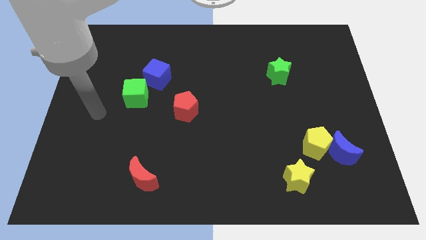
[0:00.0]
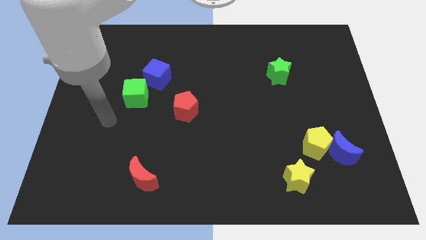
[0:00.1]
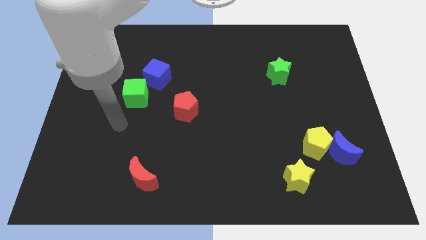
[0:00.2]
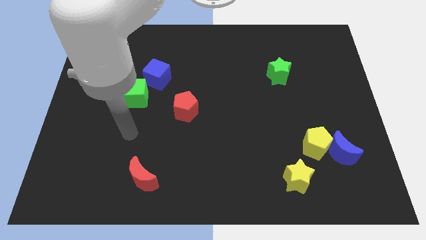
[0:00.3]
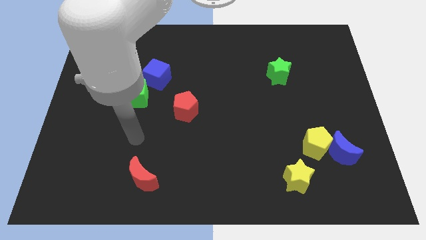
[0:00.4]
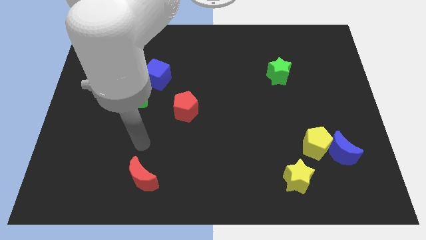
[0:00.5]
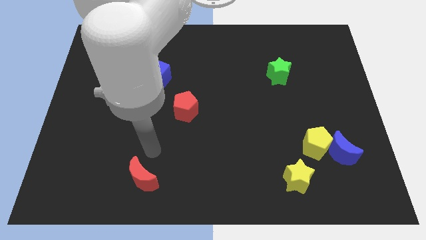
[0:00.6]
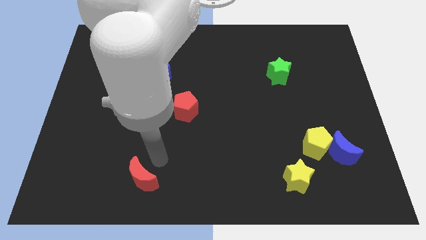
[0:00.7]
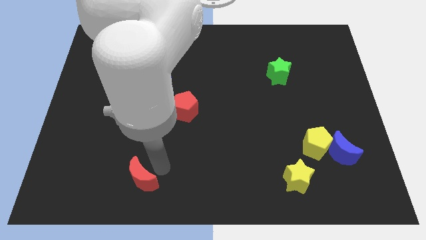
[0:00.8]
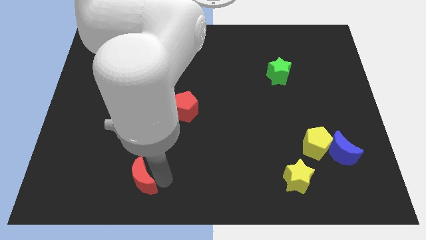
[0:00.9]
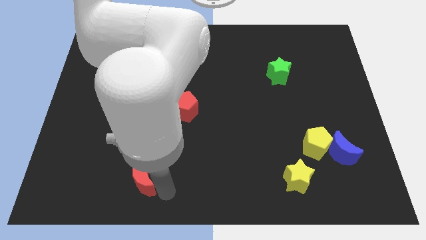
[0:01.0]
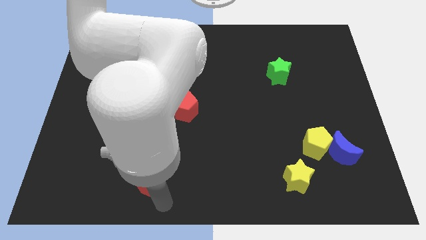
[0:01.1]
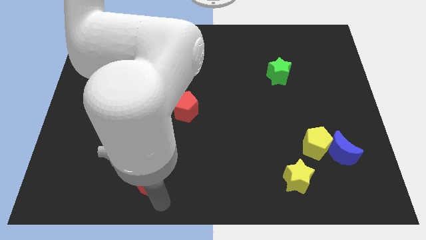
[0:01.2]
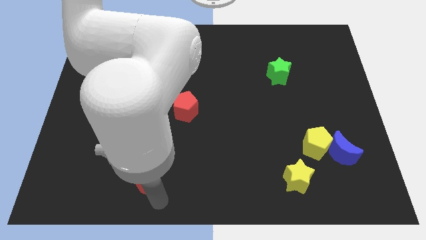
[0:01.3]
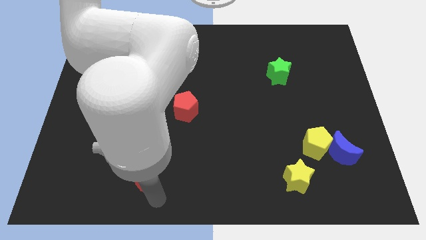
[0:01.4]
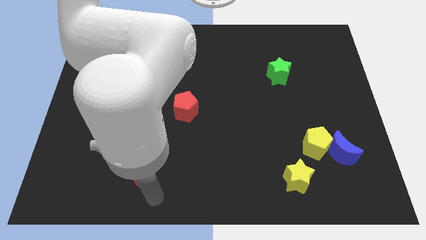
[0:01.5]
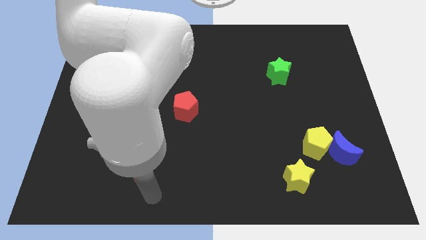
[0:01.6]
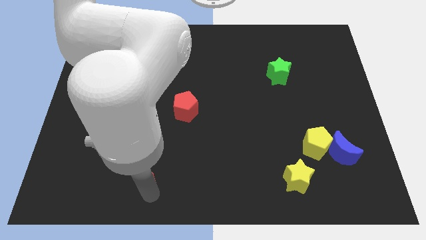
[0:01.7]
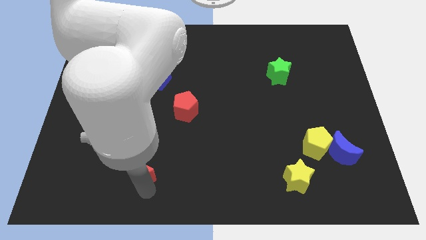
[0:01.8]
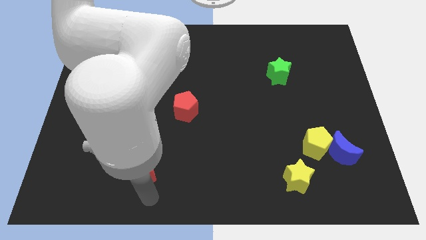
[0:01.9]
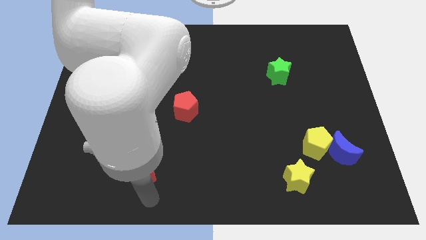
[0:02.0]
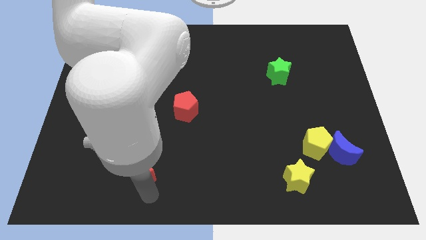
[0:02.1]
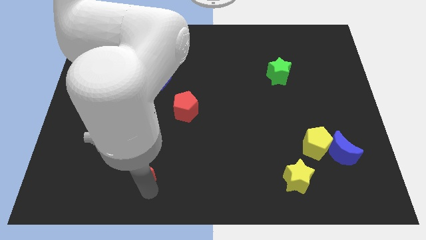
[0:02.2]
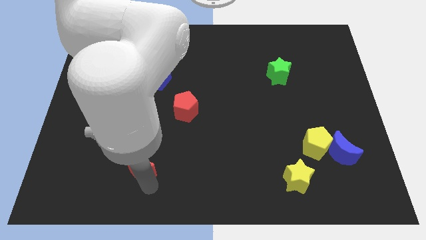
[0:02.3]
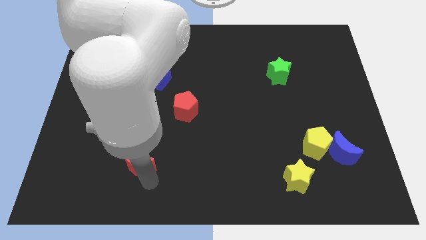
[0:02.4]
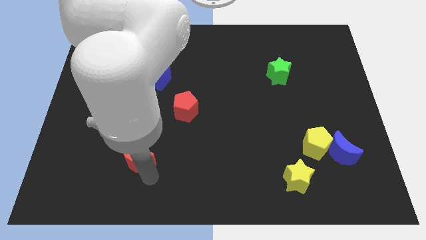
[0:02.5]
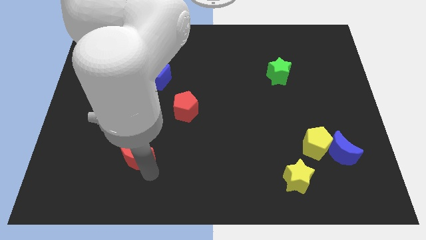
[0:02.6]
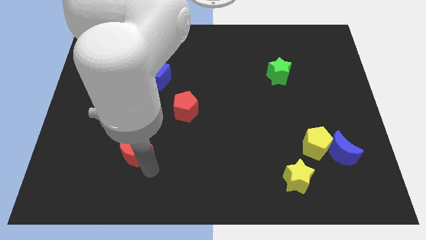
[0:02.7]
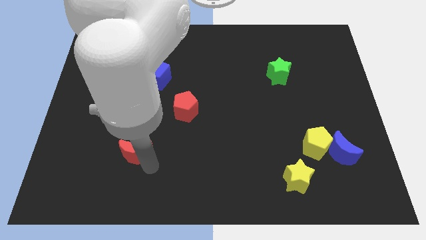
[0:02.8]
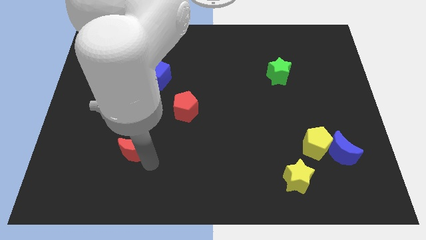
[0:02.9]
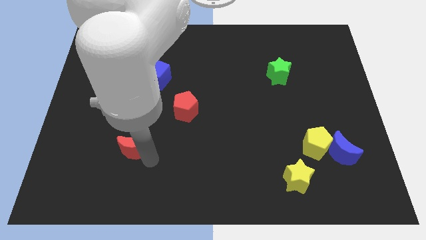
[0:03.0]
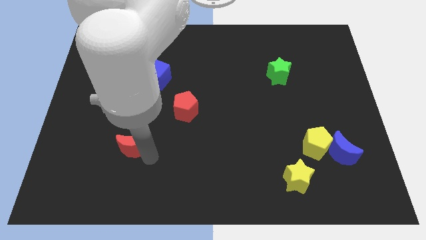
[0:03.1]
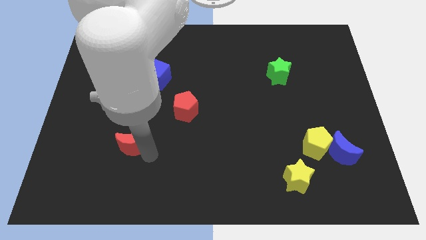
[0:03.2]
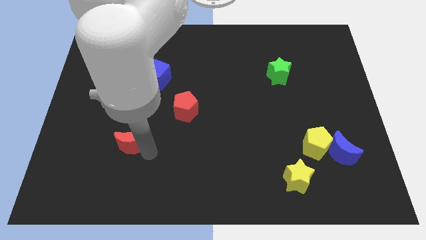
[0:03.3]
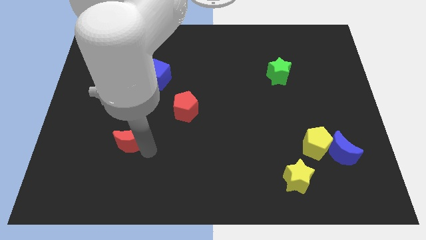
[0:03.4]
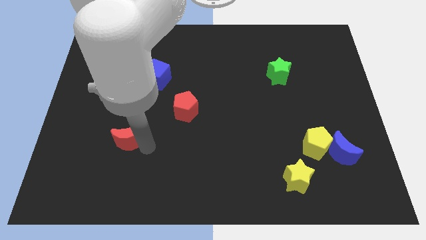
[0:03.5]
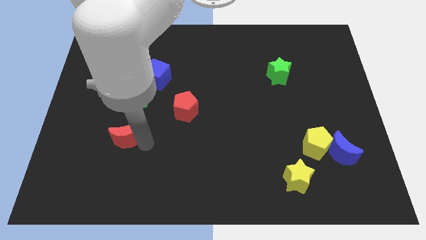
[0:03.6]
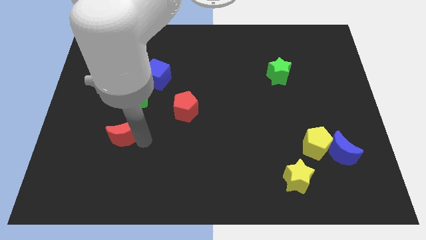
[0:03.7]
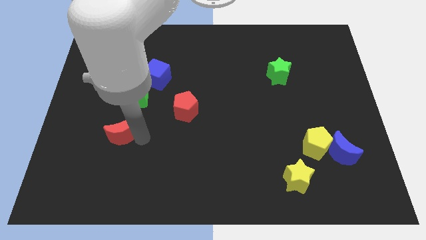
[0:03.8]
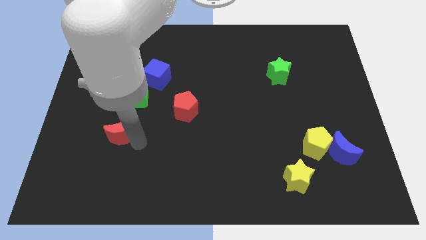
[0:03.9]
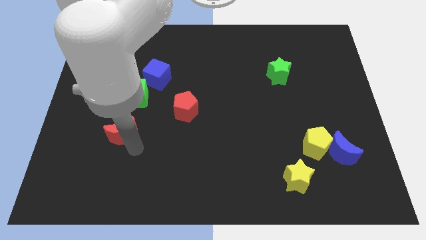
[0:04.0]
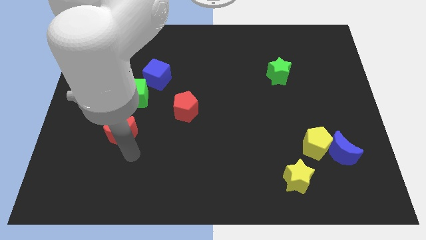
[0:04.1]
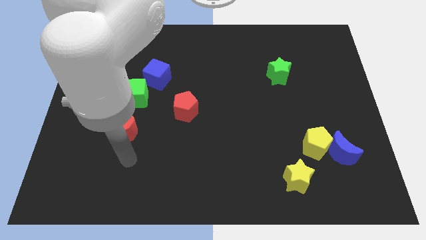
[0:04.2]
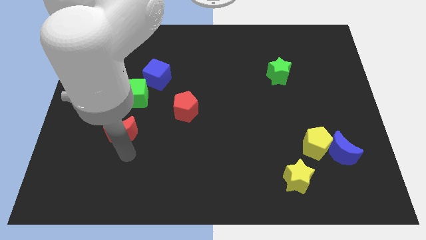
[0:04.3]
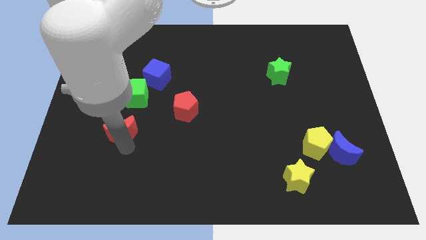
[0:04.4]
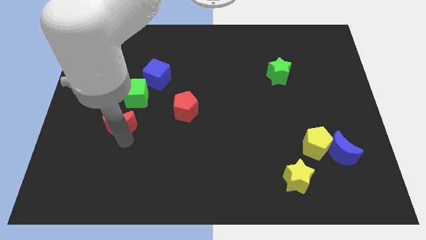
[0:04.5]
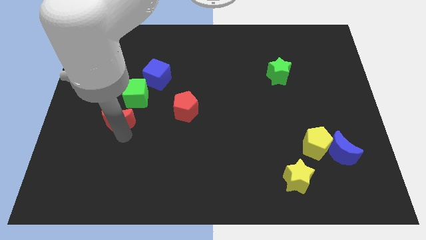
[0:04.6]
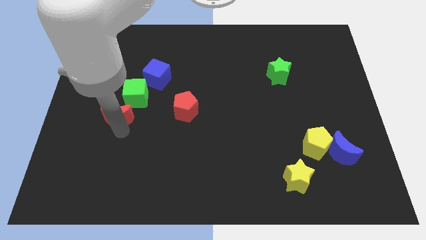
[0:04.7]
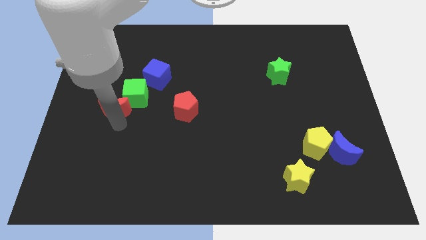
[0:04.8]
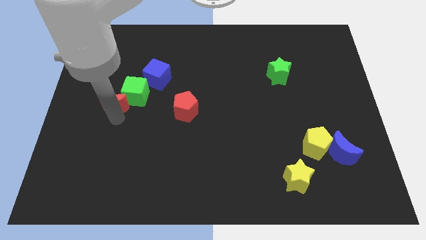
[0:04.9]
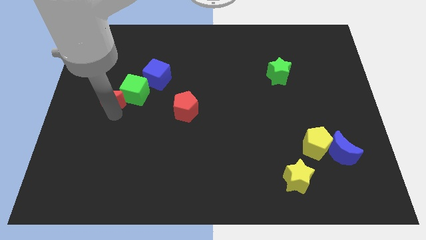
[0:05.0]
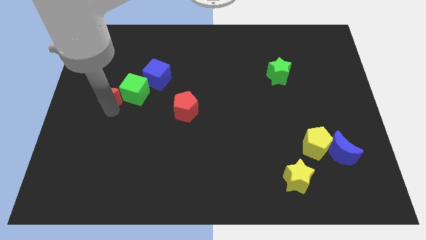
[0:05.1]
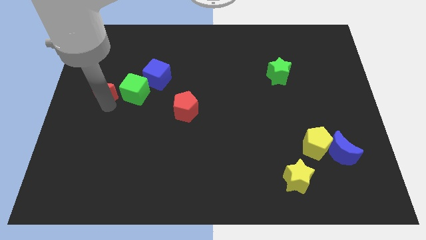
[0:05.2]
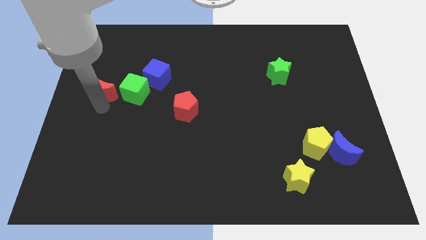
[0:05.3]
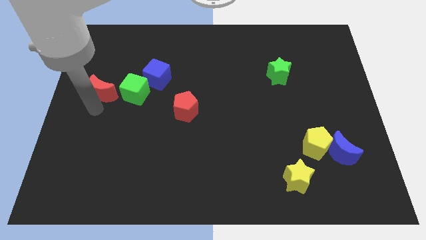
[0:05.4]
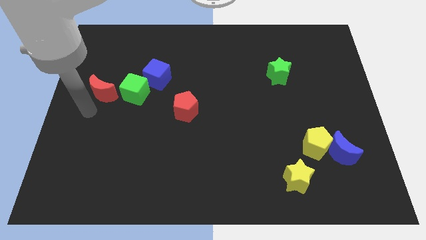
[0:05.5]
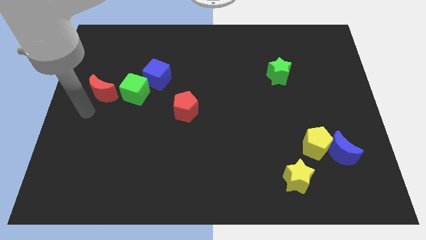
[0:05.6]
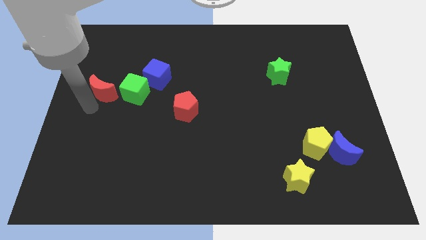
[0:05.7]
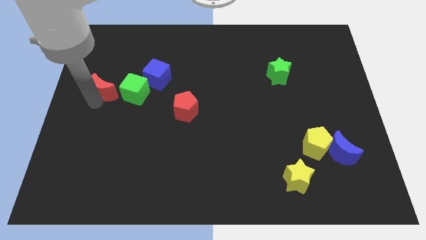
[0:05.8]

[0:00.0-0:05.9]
slide the red moon left of the blue cube
